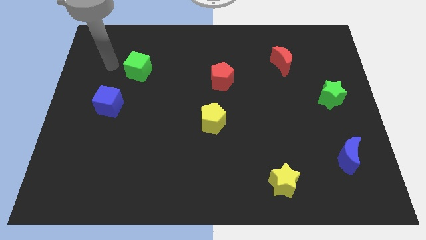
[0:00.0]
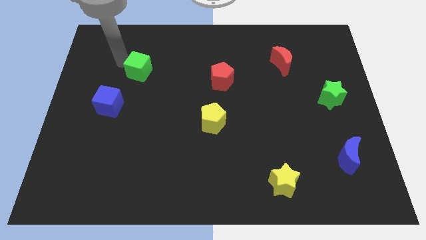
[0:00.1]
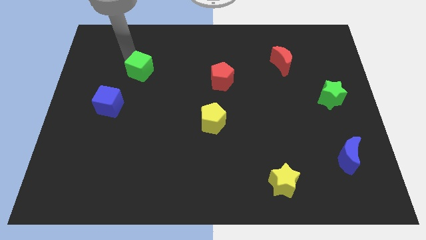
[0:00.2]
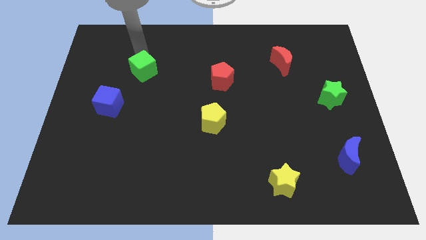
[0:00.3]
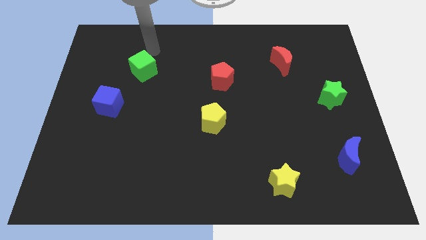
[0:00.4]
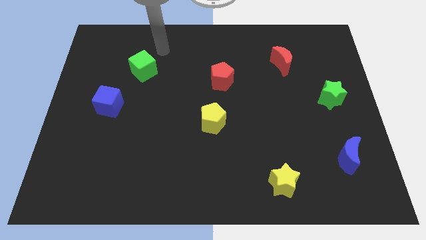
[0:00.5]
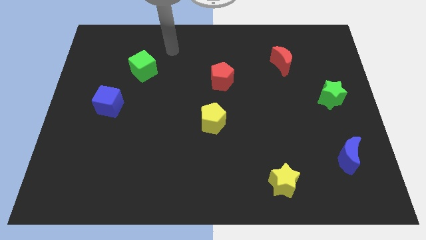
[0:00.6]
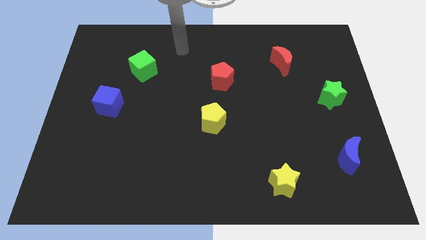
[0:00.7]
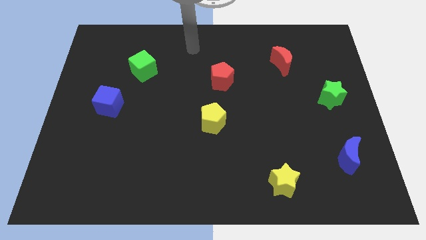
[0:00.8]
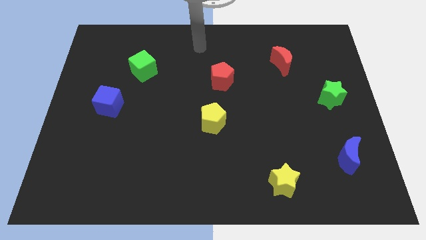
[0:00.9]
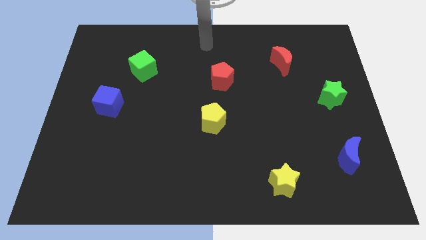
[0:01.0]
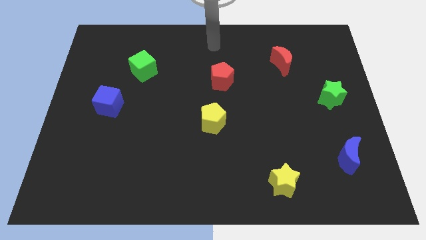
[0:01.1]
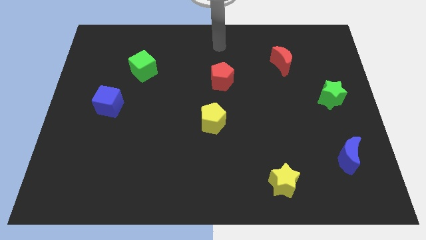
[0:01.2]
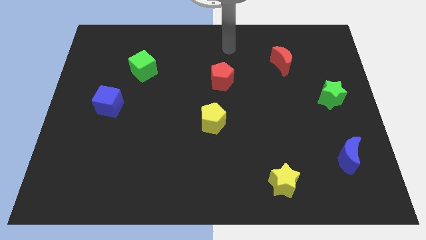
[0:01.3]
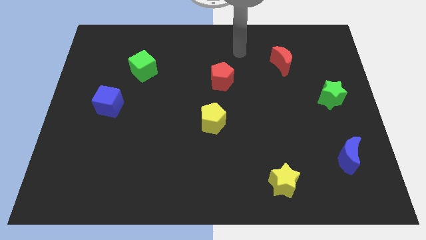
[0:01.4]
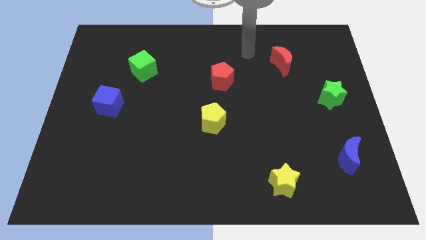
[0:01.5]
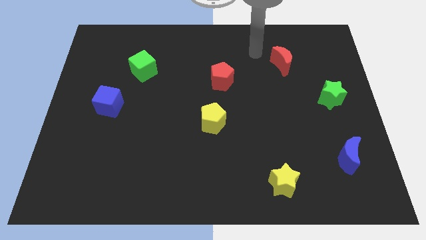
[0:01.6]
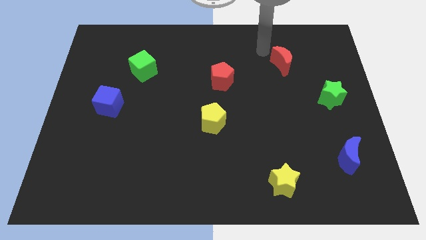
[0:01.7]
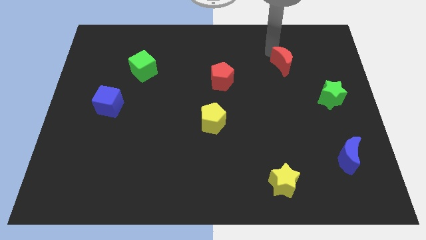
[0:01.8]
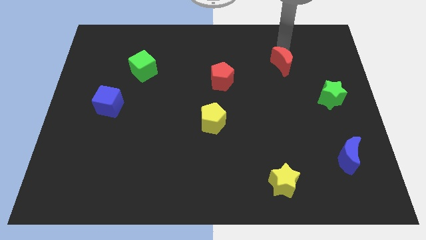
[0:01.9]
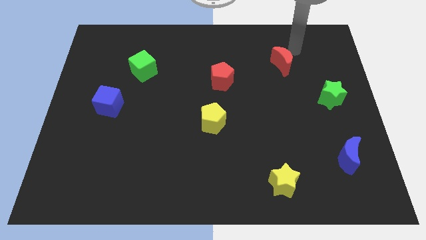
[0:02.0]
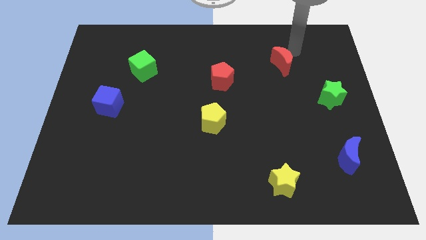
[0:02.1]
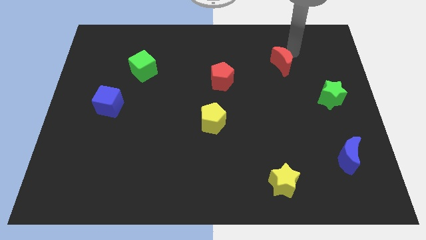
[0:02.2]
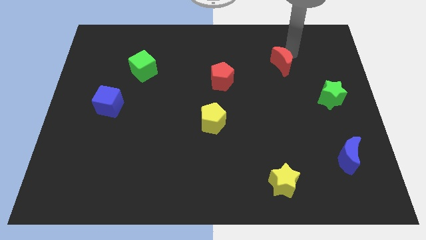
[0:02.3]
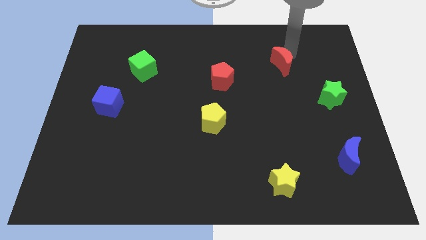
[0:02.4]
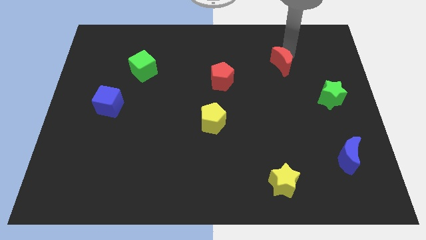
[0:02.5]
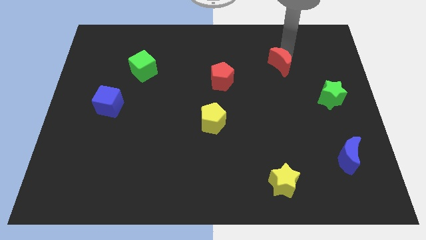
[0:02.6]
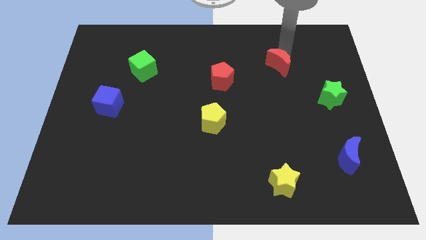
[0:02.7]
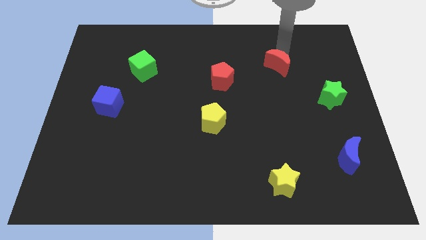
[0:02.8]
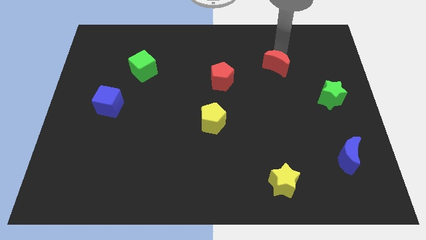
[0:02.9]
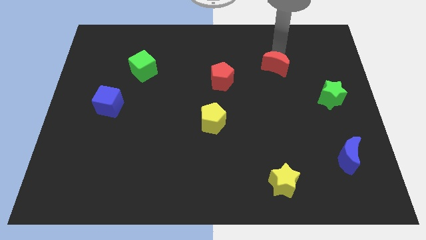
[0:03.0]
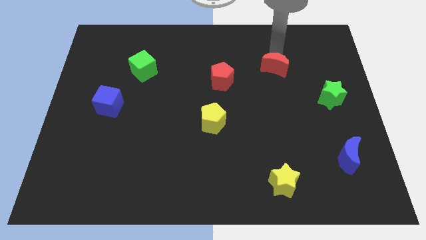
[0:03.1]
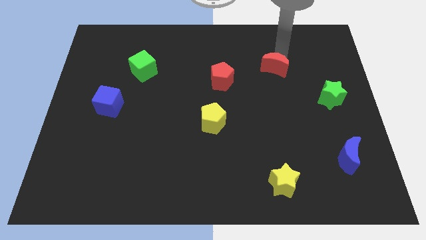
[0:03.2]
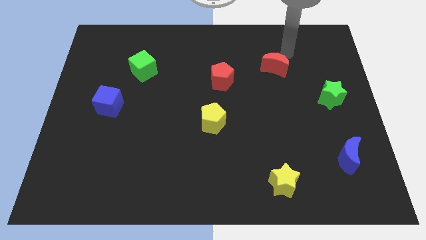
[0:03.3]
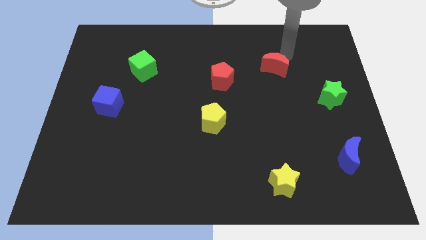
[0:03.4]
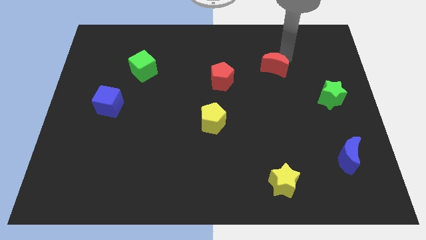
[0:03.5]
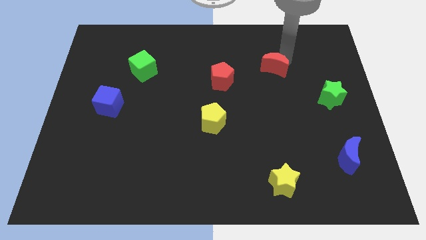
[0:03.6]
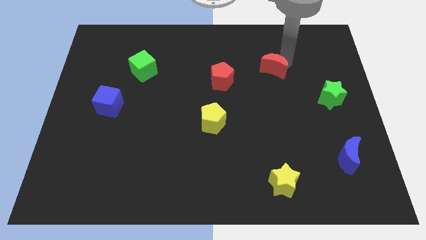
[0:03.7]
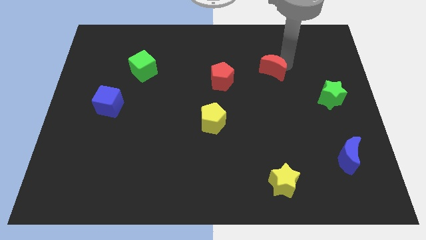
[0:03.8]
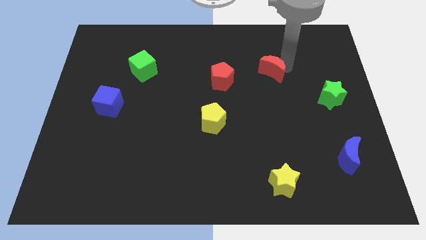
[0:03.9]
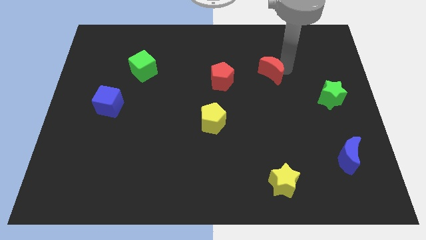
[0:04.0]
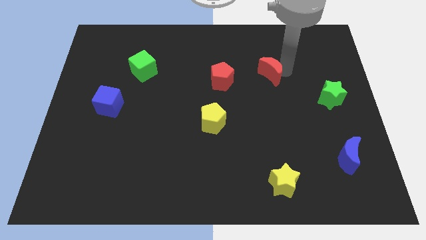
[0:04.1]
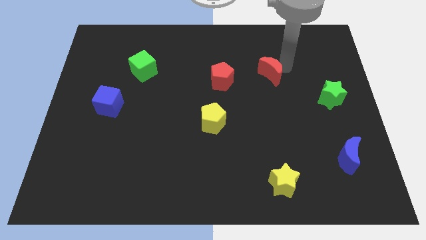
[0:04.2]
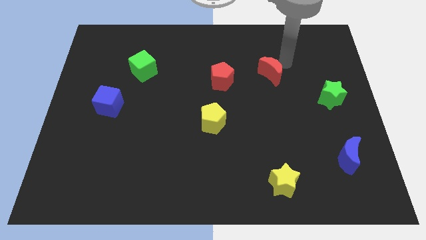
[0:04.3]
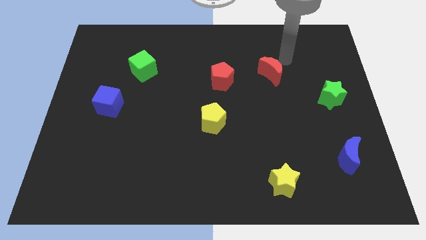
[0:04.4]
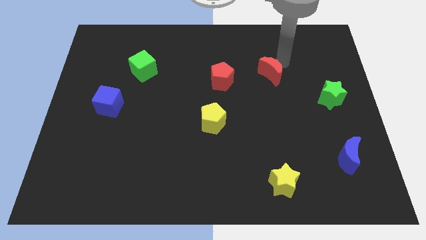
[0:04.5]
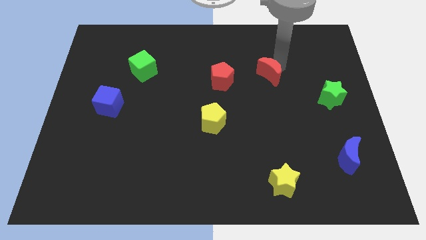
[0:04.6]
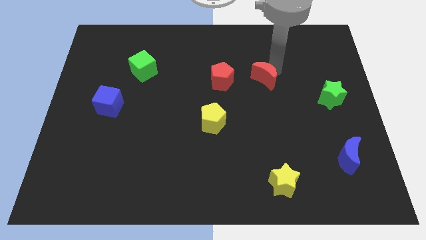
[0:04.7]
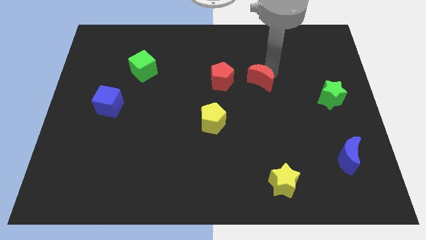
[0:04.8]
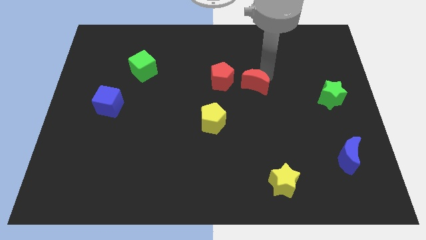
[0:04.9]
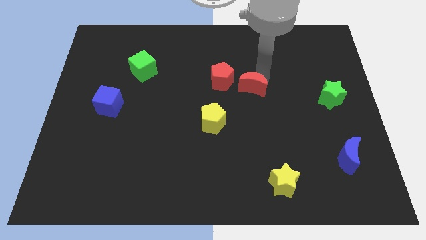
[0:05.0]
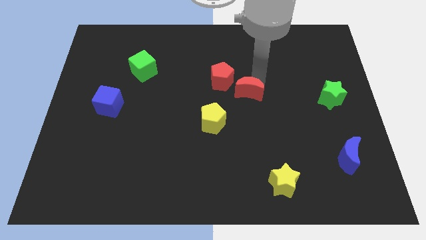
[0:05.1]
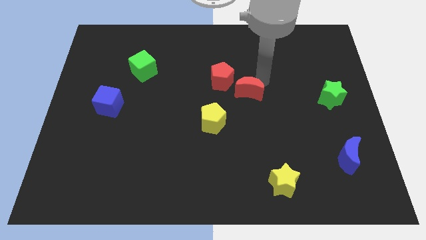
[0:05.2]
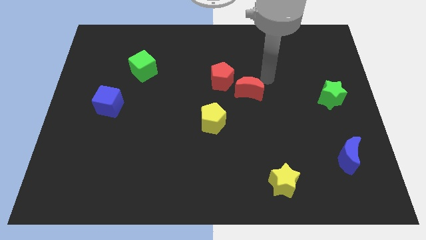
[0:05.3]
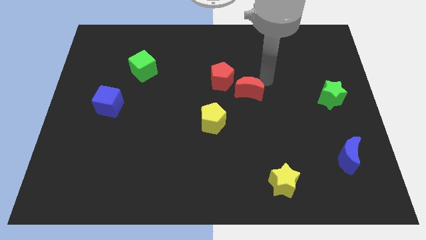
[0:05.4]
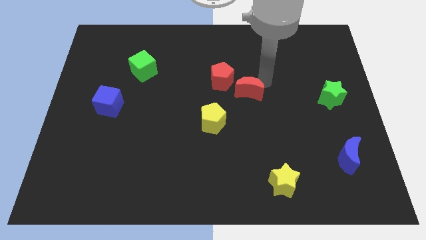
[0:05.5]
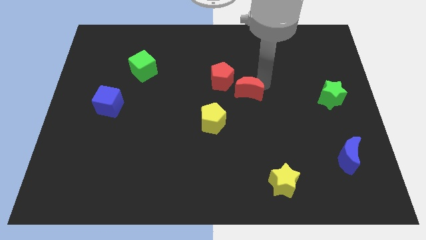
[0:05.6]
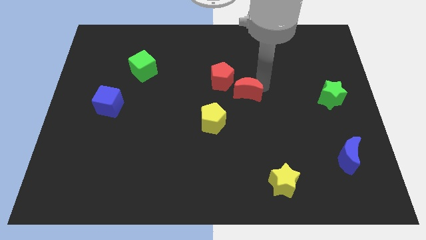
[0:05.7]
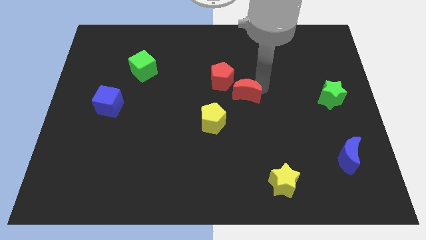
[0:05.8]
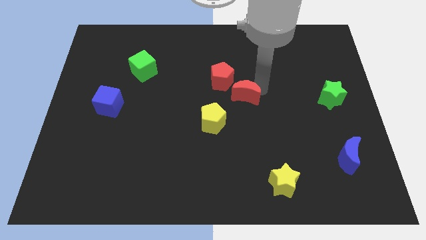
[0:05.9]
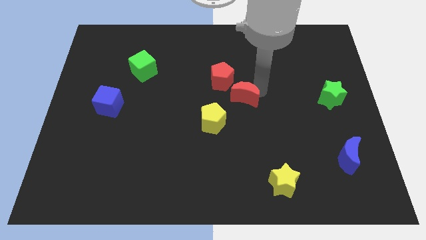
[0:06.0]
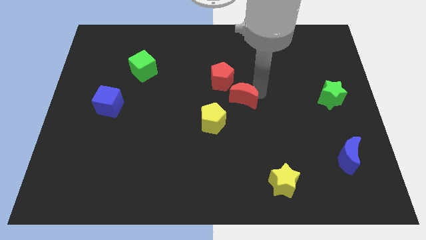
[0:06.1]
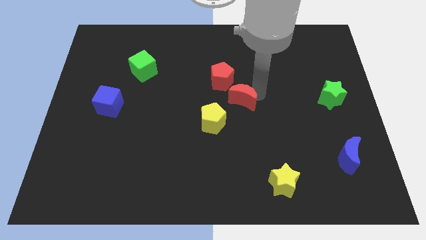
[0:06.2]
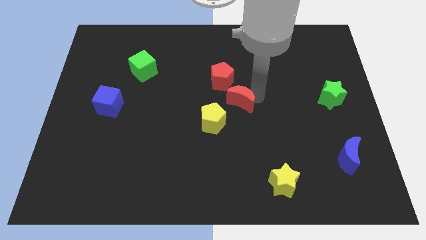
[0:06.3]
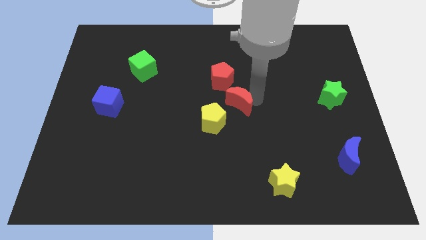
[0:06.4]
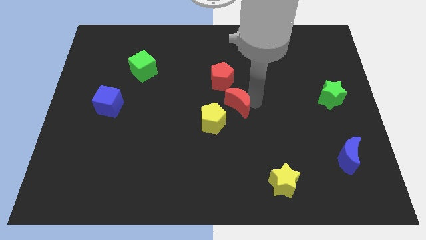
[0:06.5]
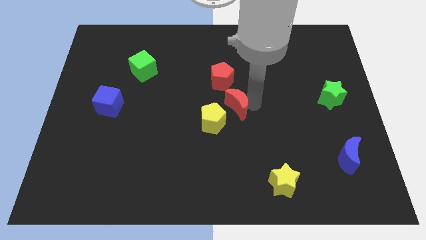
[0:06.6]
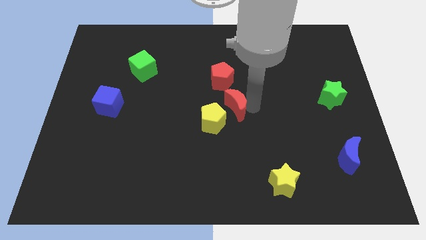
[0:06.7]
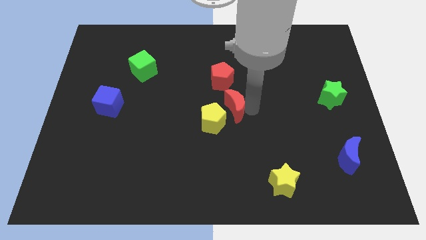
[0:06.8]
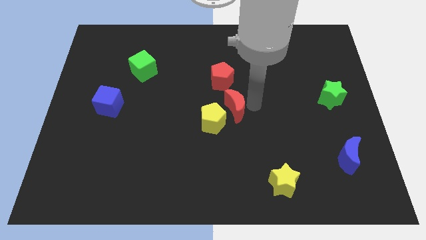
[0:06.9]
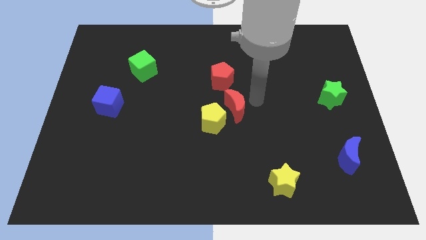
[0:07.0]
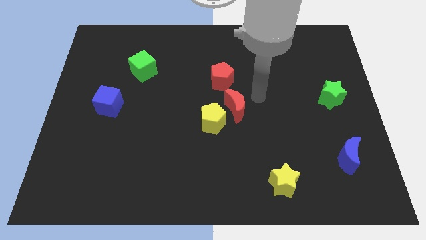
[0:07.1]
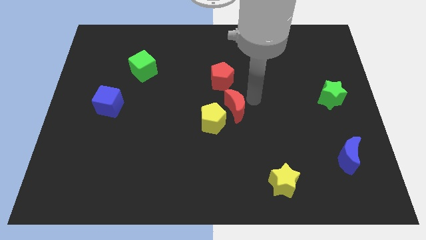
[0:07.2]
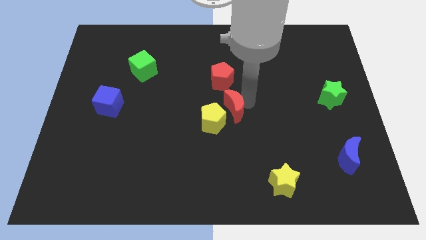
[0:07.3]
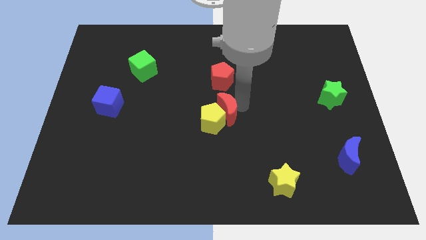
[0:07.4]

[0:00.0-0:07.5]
push the red moon towards the yellow pentagon
